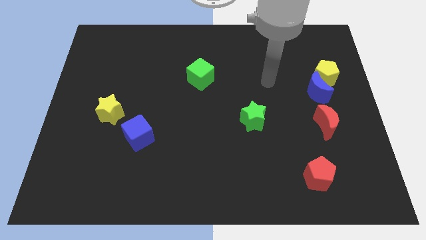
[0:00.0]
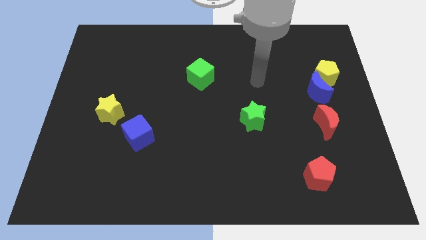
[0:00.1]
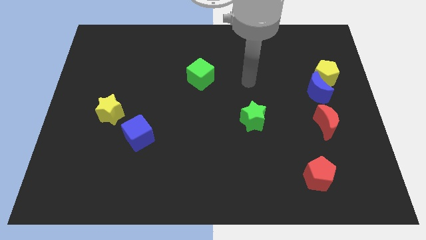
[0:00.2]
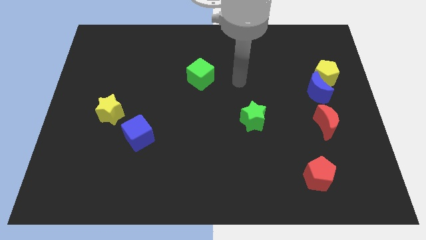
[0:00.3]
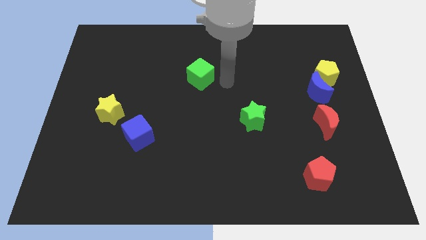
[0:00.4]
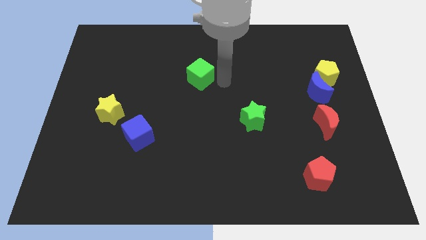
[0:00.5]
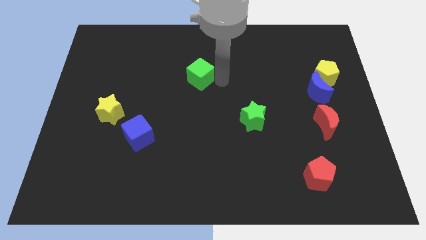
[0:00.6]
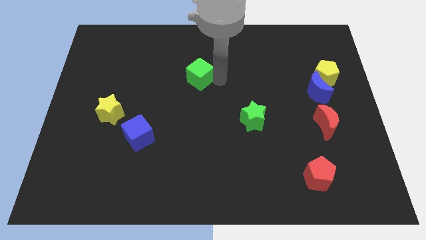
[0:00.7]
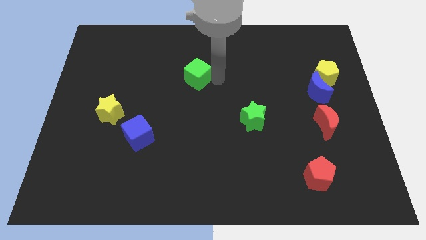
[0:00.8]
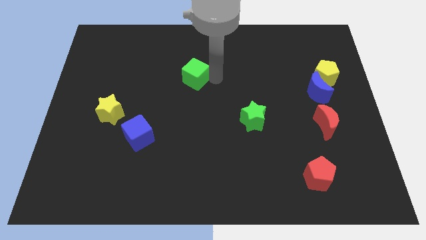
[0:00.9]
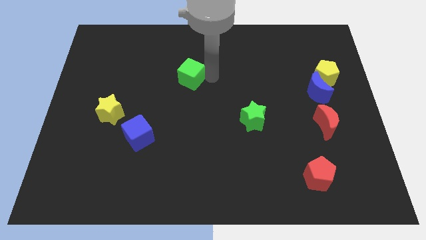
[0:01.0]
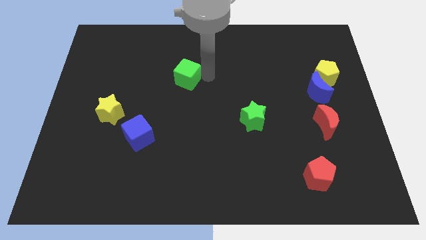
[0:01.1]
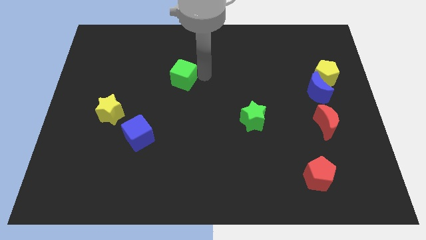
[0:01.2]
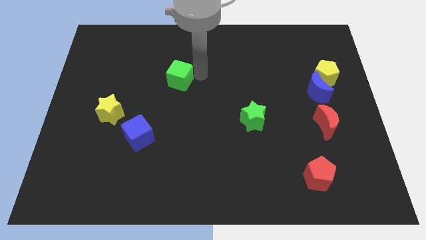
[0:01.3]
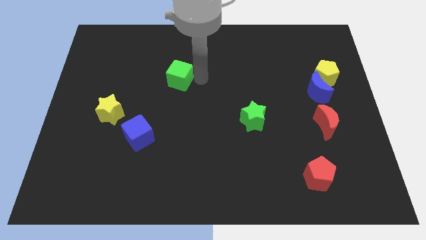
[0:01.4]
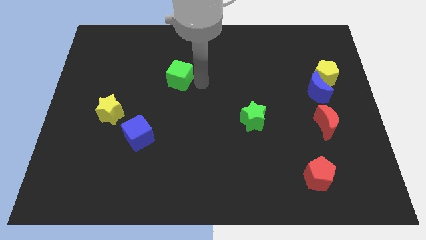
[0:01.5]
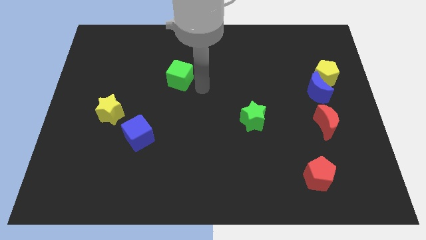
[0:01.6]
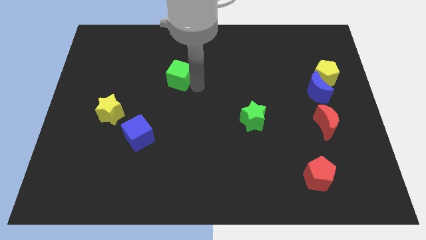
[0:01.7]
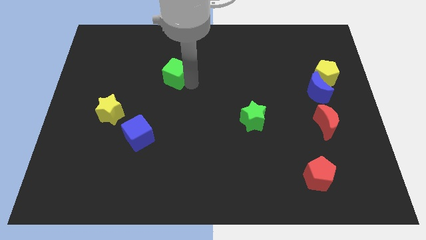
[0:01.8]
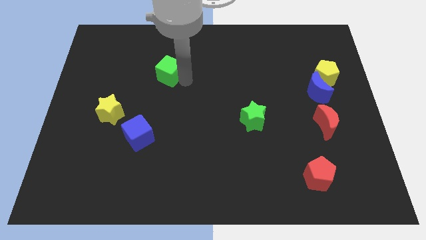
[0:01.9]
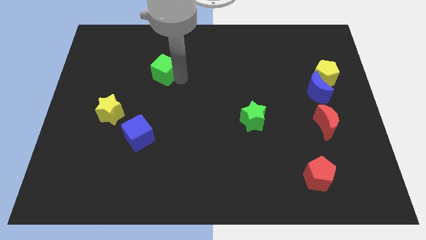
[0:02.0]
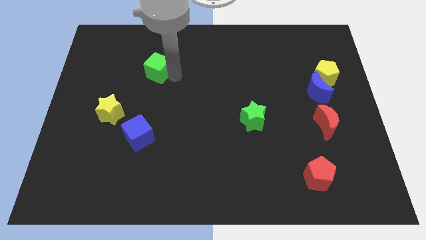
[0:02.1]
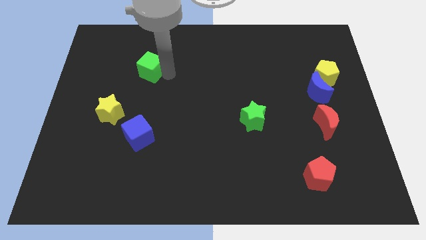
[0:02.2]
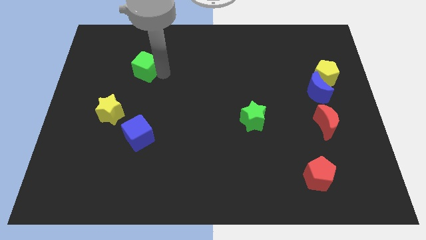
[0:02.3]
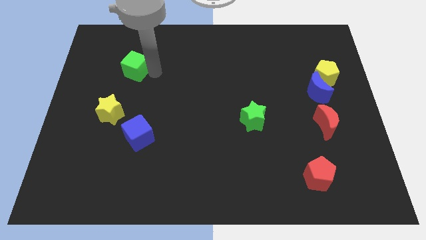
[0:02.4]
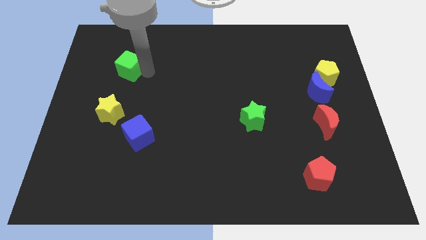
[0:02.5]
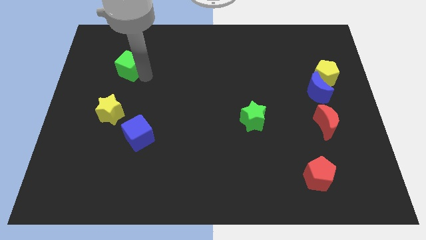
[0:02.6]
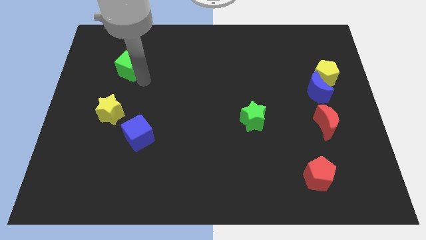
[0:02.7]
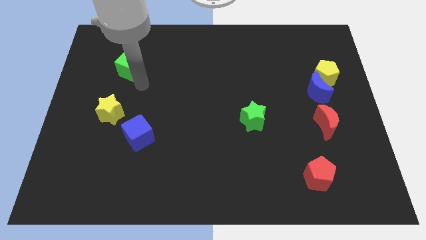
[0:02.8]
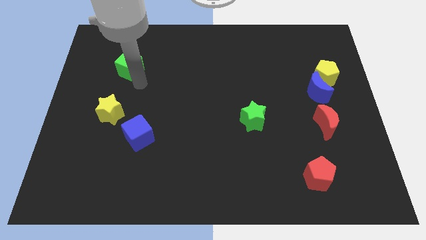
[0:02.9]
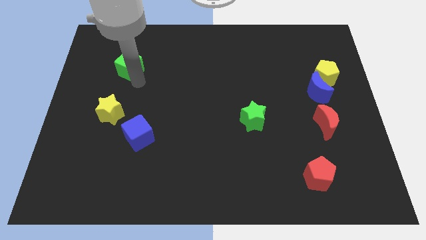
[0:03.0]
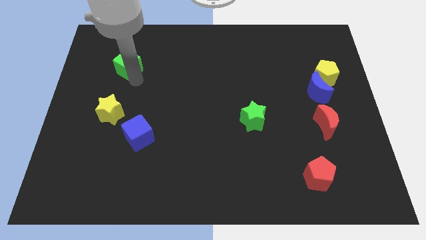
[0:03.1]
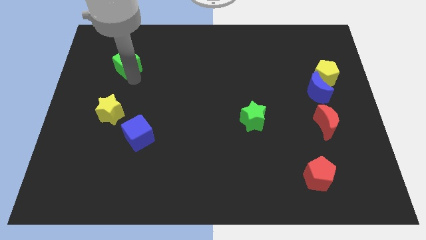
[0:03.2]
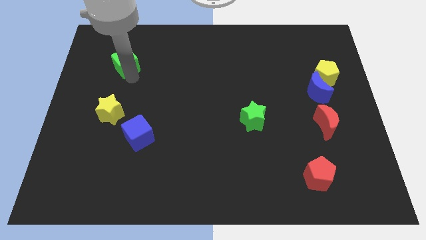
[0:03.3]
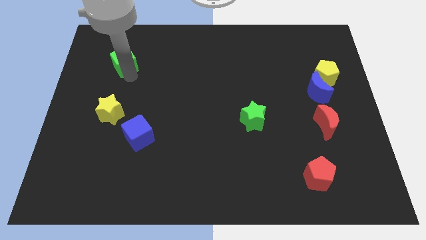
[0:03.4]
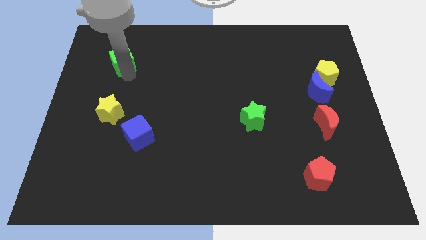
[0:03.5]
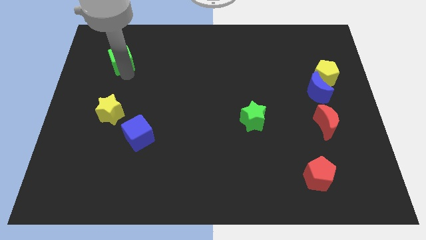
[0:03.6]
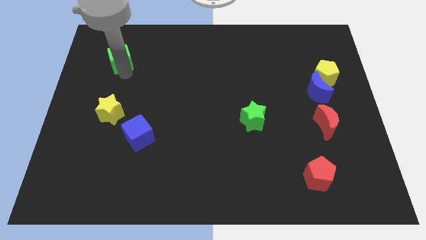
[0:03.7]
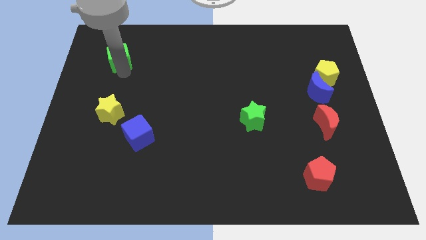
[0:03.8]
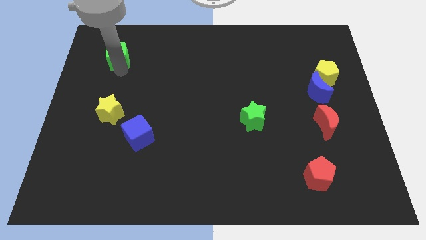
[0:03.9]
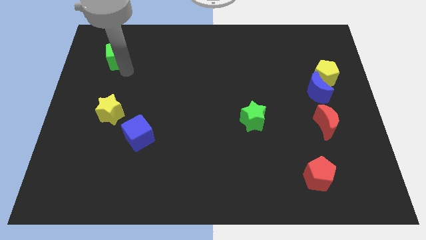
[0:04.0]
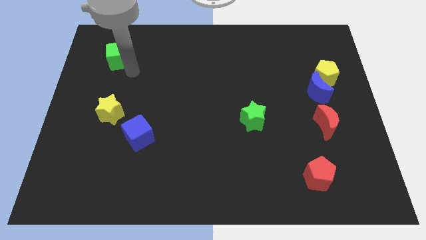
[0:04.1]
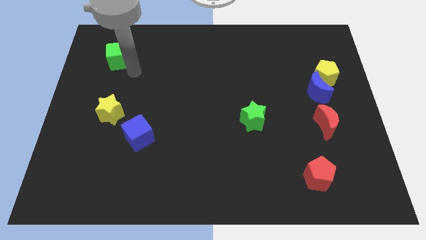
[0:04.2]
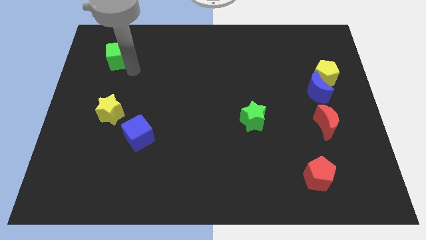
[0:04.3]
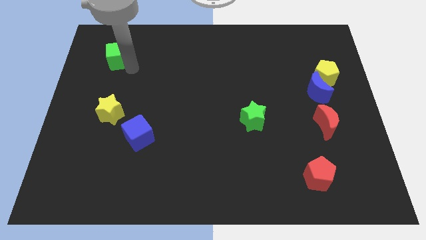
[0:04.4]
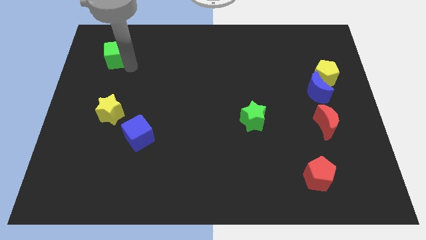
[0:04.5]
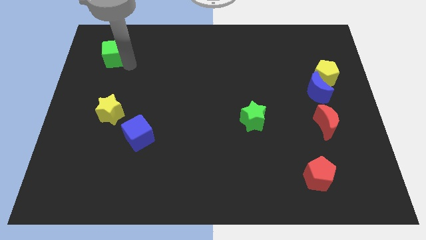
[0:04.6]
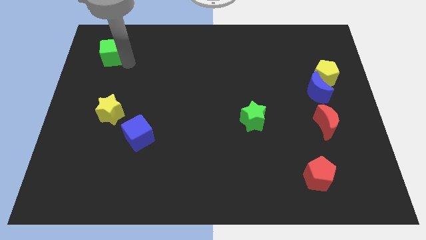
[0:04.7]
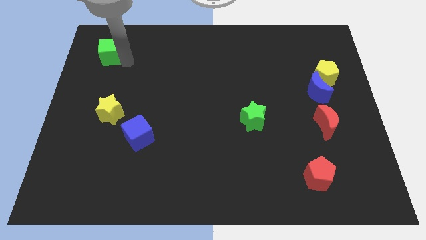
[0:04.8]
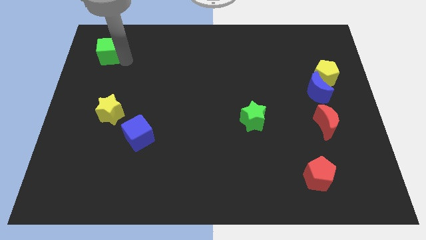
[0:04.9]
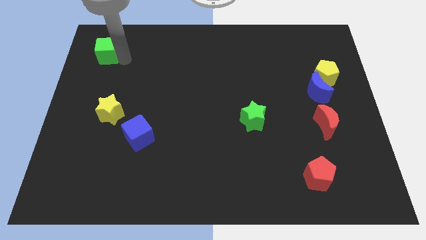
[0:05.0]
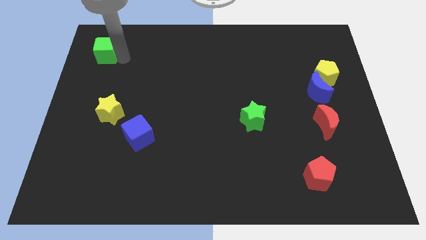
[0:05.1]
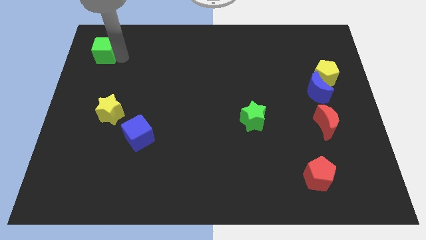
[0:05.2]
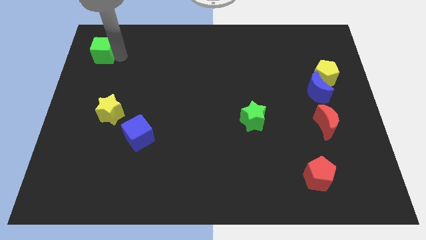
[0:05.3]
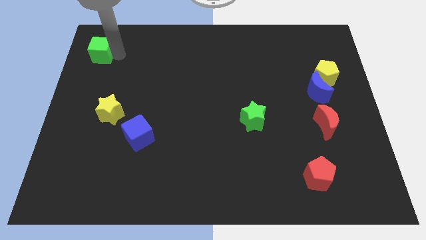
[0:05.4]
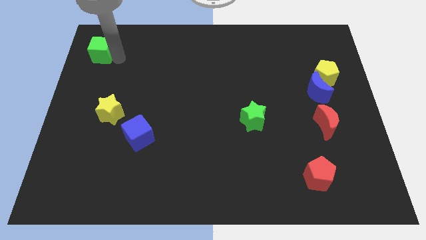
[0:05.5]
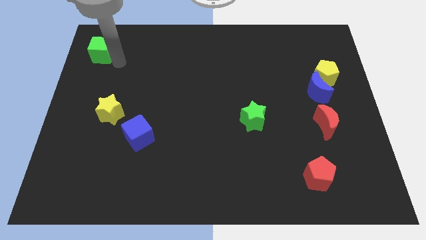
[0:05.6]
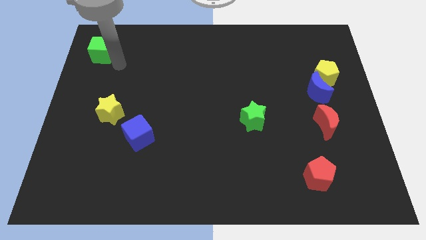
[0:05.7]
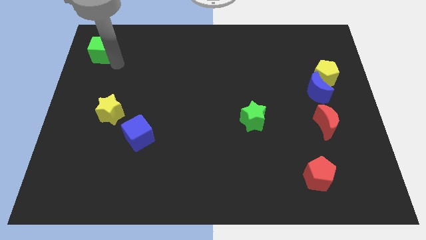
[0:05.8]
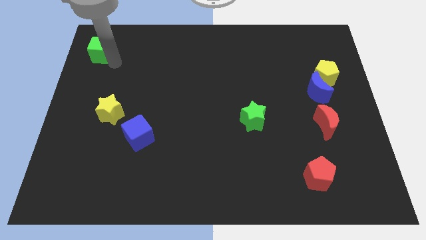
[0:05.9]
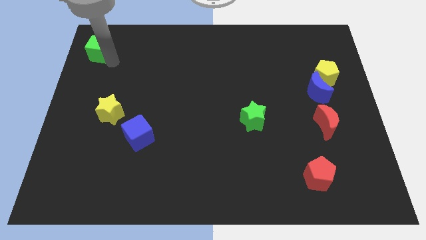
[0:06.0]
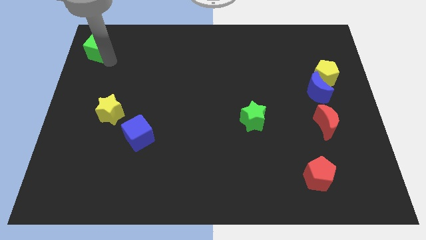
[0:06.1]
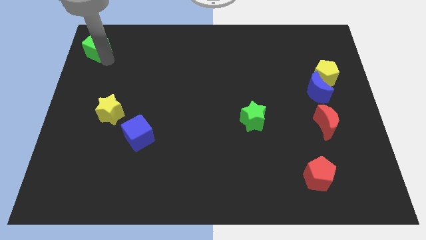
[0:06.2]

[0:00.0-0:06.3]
put the green cube to the top left of the board
